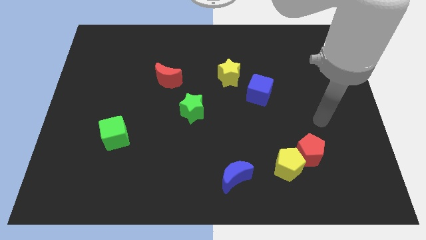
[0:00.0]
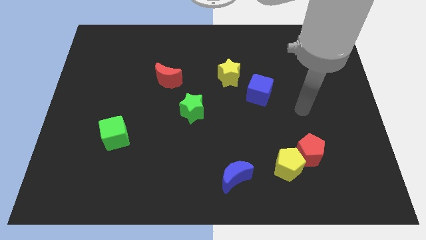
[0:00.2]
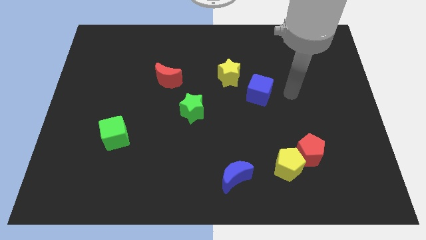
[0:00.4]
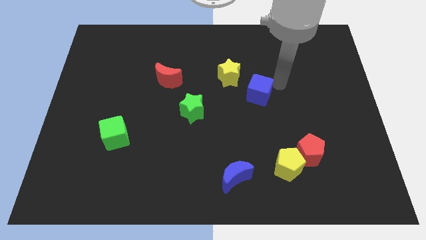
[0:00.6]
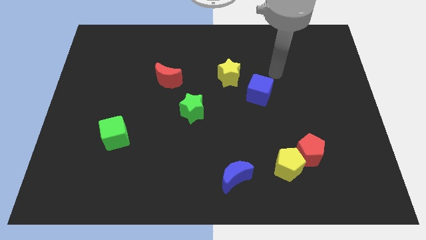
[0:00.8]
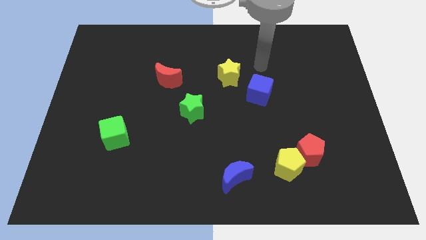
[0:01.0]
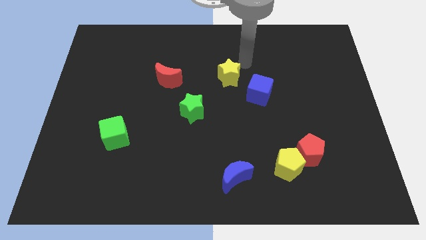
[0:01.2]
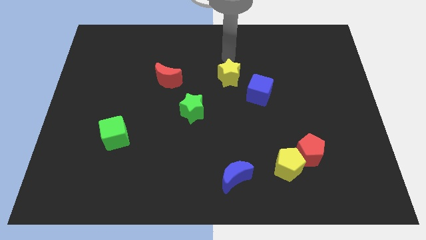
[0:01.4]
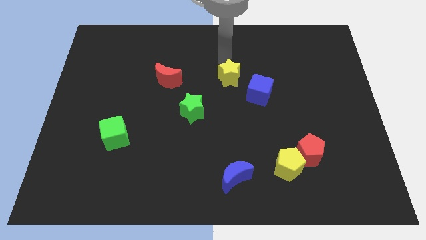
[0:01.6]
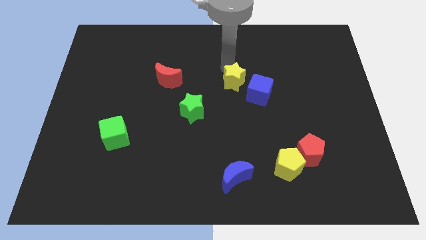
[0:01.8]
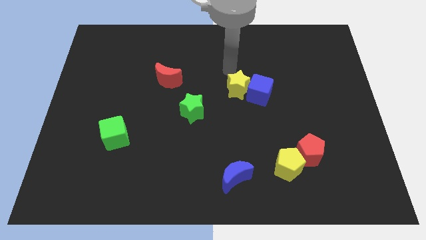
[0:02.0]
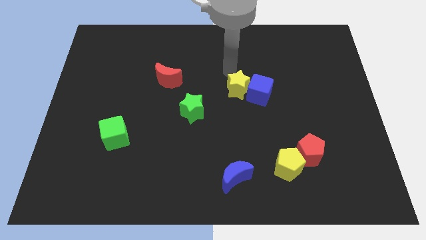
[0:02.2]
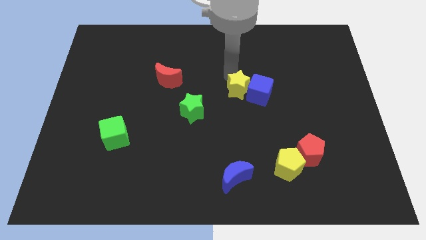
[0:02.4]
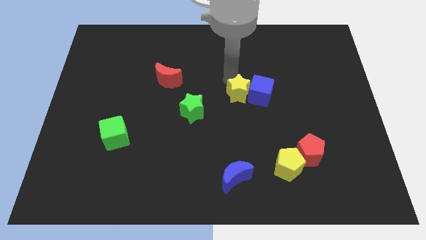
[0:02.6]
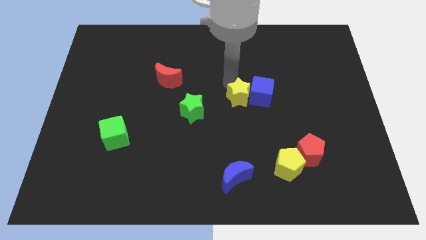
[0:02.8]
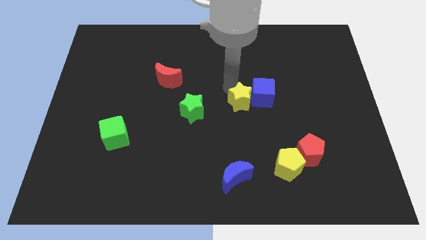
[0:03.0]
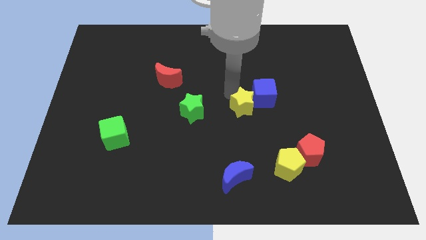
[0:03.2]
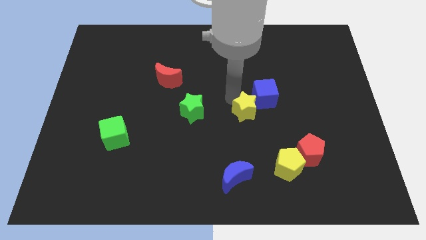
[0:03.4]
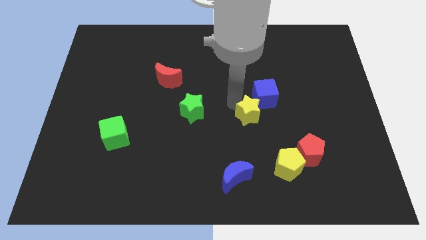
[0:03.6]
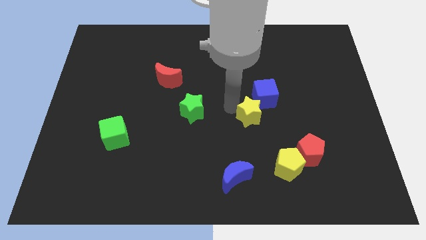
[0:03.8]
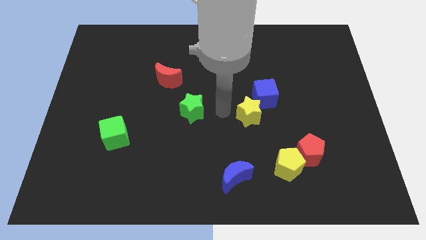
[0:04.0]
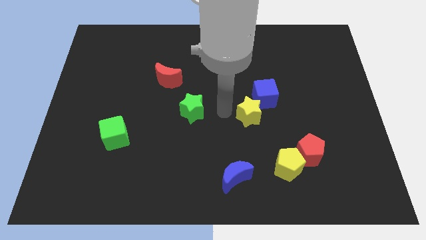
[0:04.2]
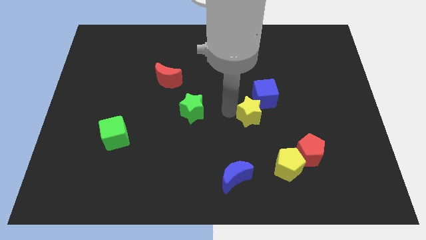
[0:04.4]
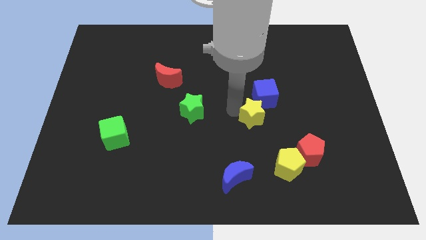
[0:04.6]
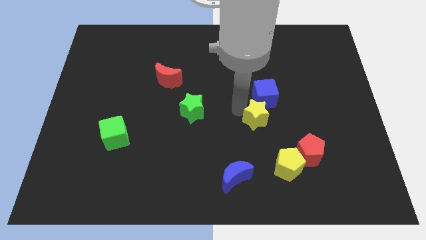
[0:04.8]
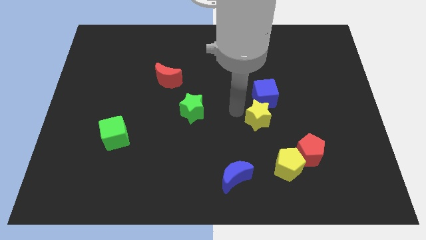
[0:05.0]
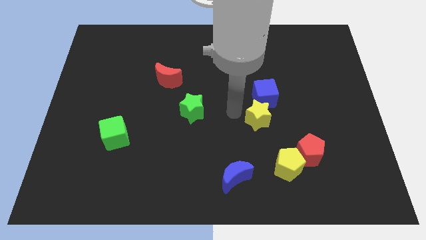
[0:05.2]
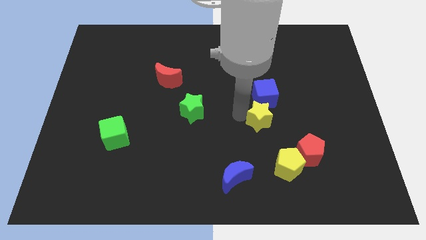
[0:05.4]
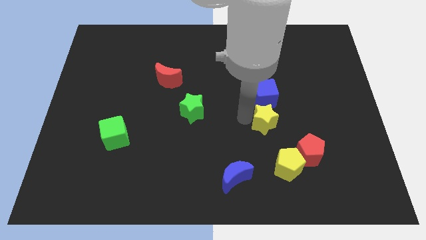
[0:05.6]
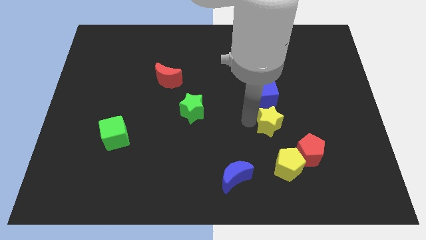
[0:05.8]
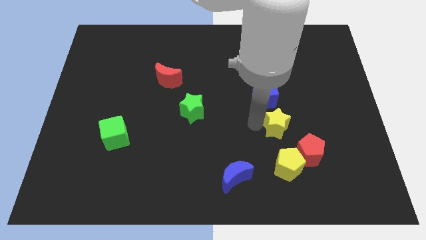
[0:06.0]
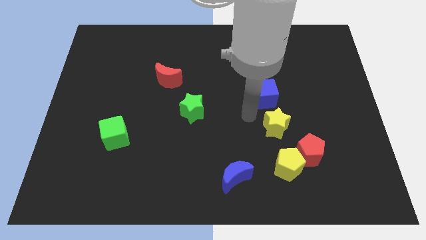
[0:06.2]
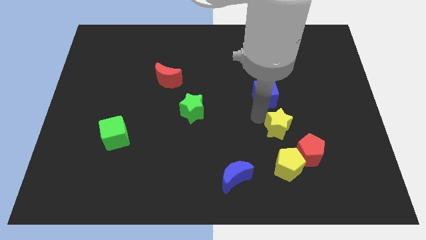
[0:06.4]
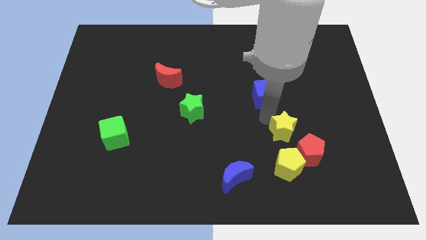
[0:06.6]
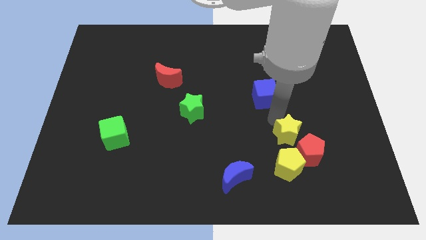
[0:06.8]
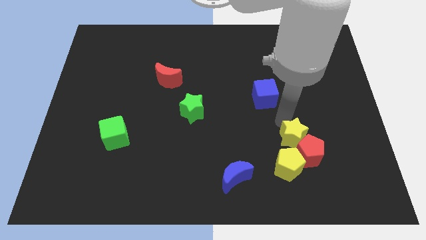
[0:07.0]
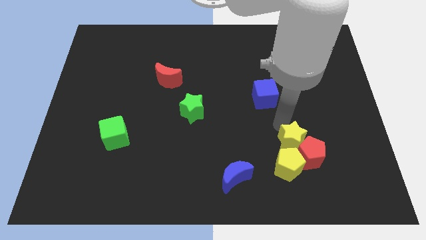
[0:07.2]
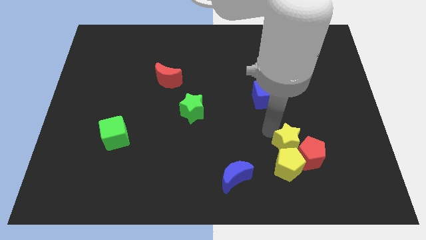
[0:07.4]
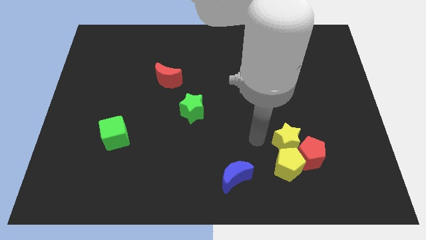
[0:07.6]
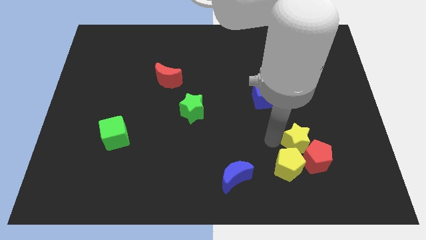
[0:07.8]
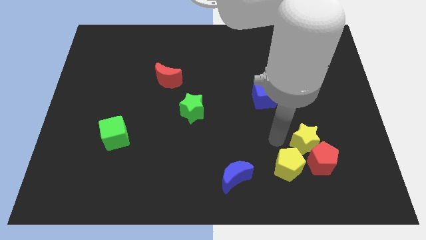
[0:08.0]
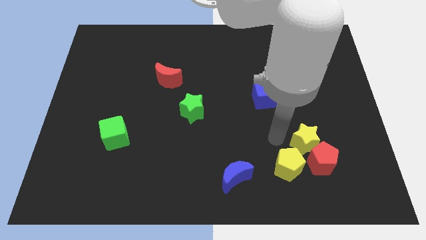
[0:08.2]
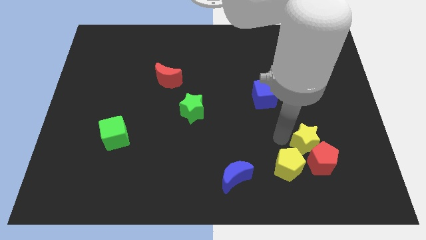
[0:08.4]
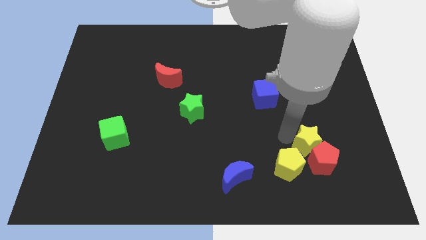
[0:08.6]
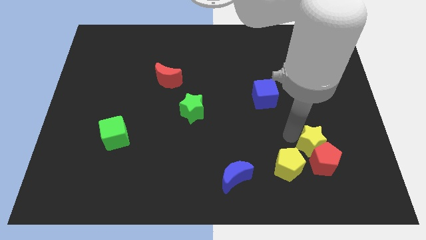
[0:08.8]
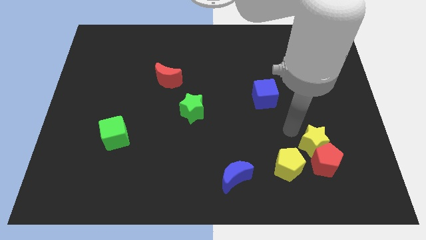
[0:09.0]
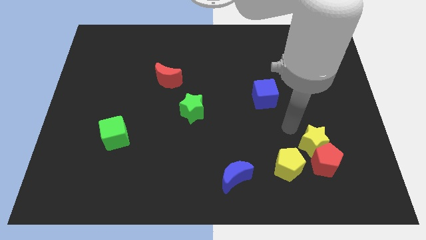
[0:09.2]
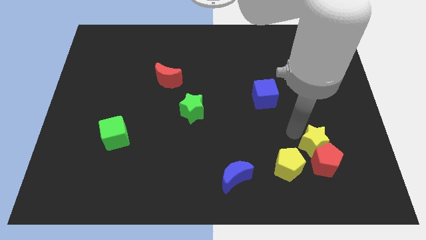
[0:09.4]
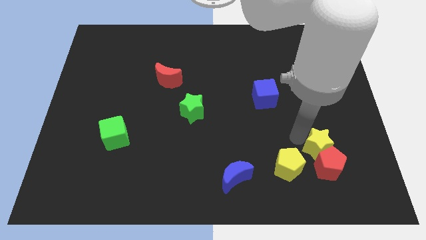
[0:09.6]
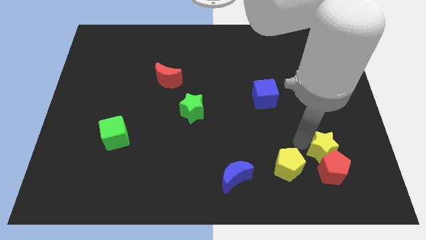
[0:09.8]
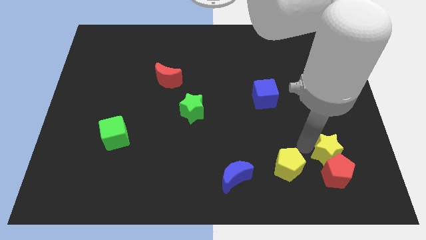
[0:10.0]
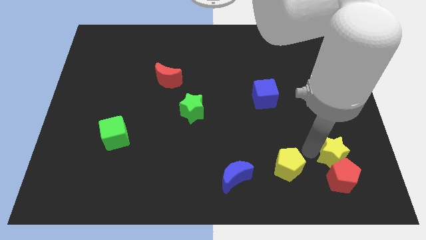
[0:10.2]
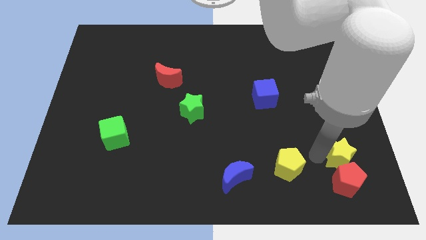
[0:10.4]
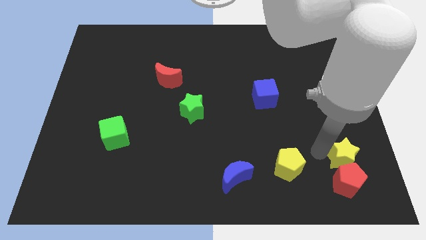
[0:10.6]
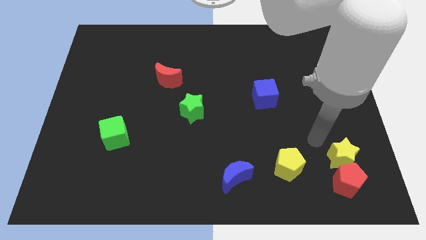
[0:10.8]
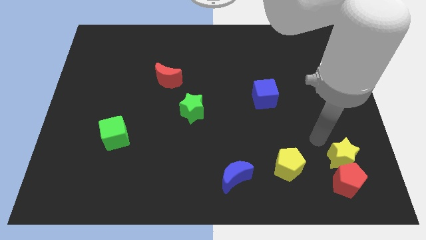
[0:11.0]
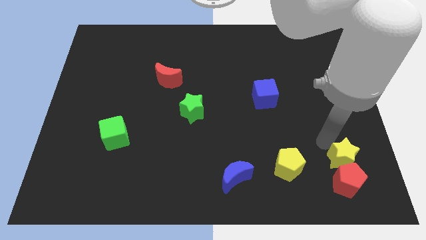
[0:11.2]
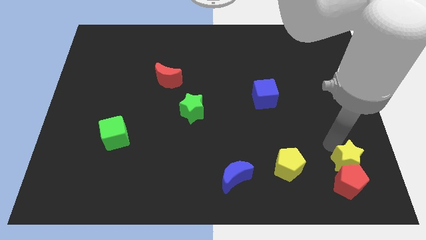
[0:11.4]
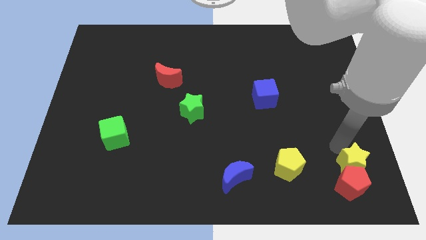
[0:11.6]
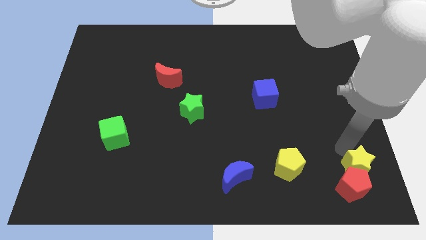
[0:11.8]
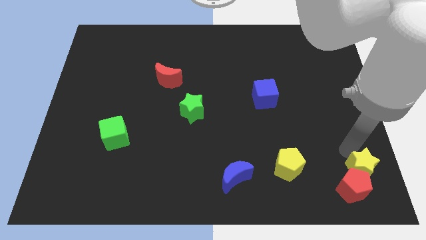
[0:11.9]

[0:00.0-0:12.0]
push the yellow star to the bottom right corner

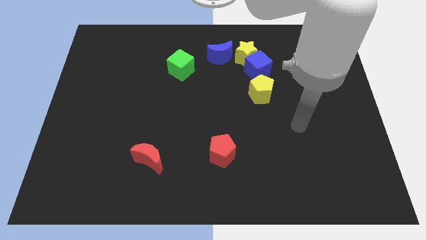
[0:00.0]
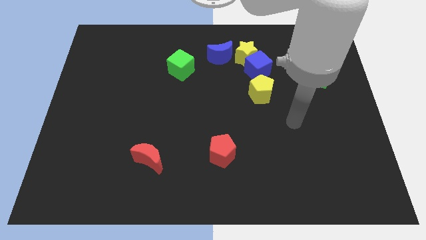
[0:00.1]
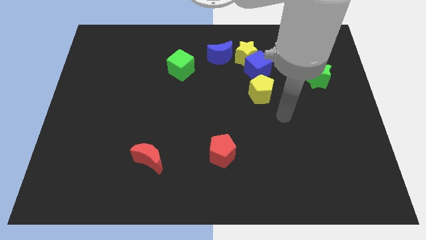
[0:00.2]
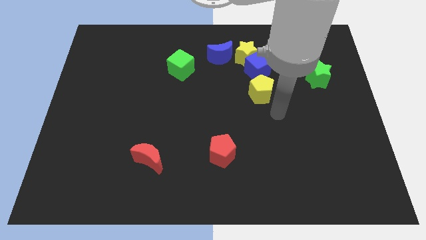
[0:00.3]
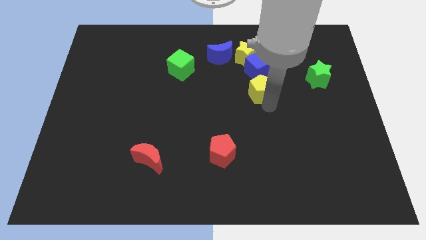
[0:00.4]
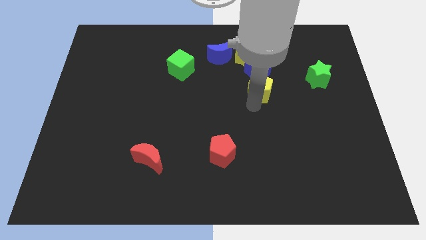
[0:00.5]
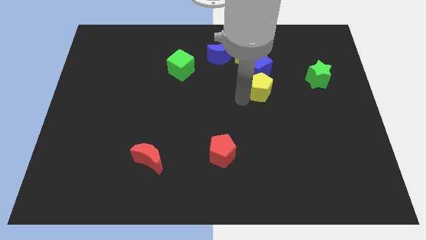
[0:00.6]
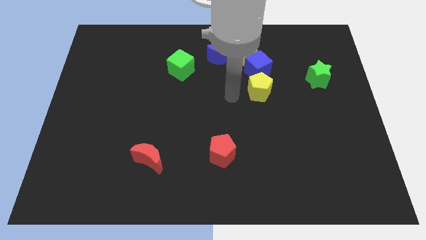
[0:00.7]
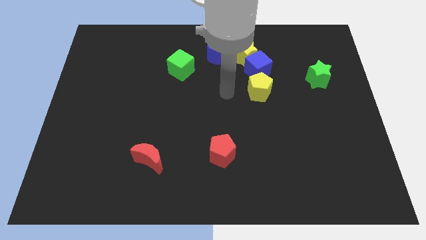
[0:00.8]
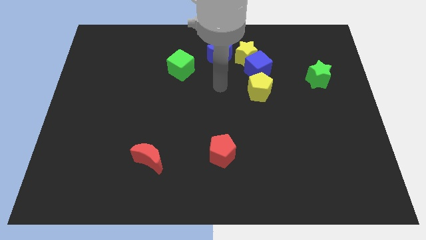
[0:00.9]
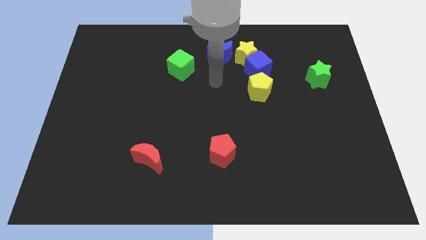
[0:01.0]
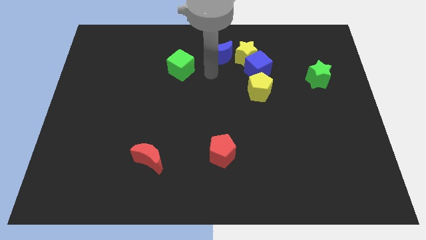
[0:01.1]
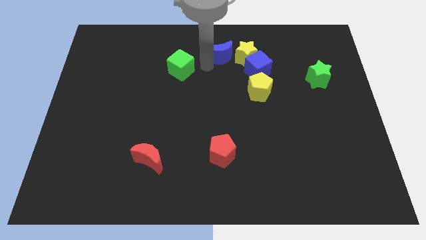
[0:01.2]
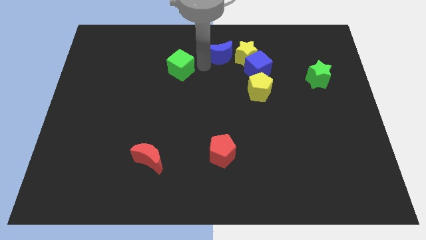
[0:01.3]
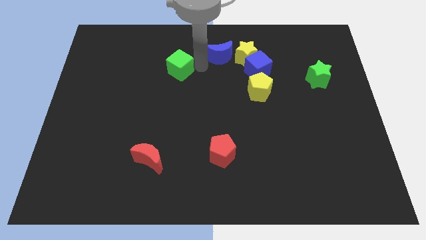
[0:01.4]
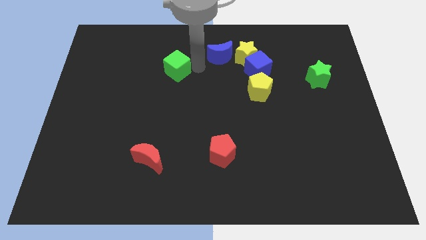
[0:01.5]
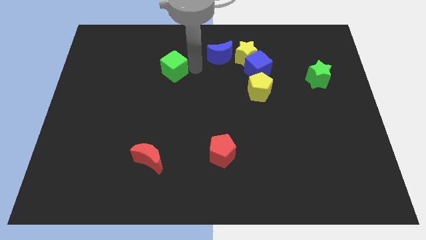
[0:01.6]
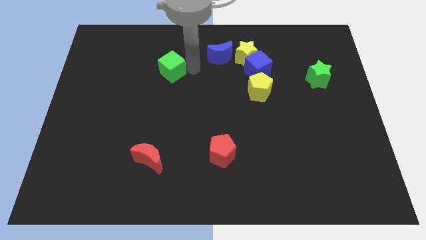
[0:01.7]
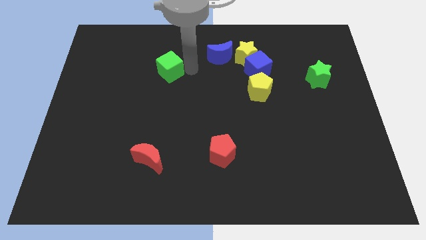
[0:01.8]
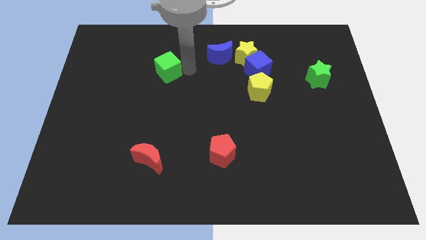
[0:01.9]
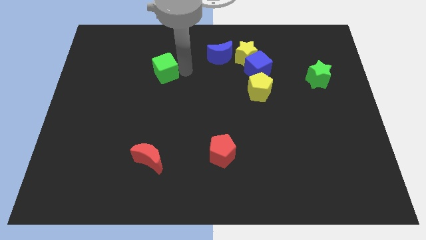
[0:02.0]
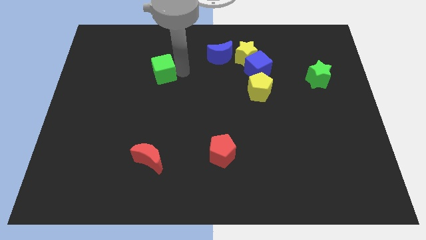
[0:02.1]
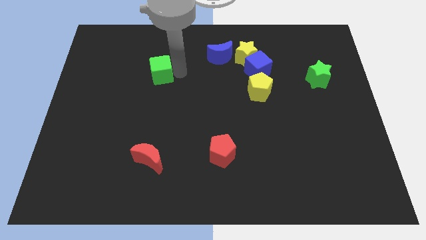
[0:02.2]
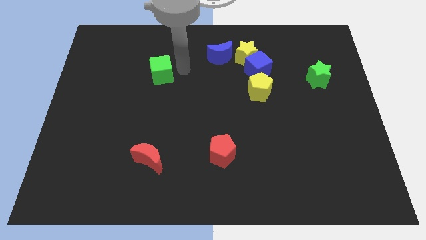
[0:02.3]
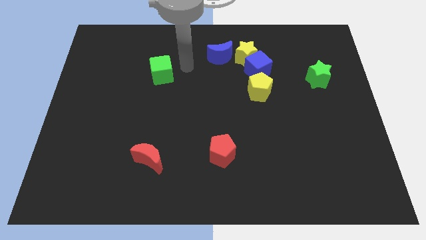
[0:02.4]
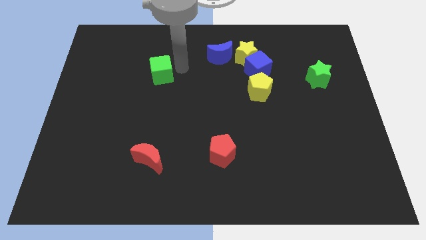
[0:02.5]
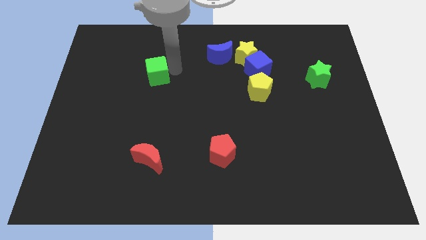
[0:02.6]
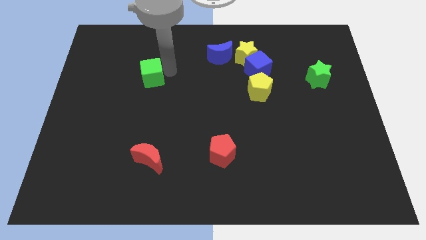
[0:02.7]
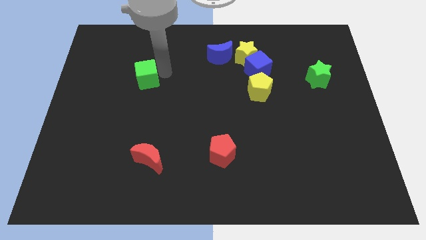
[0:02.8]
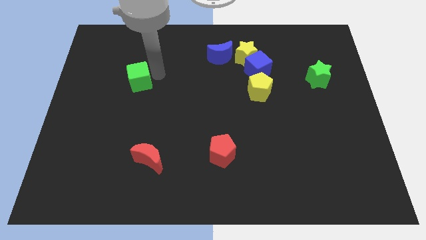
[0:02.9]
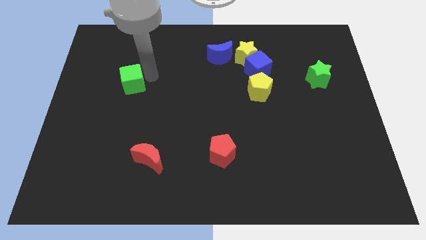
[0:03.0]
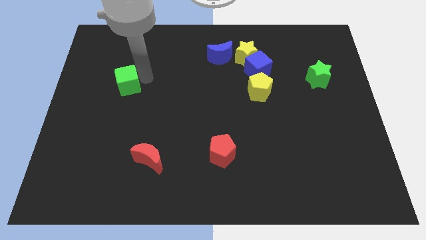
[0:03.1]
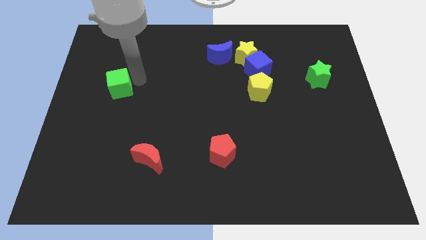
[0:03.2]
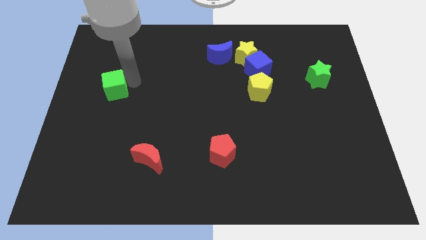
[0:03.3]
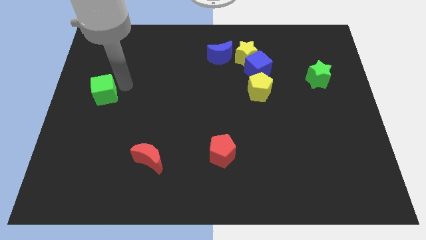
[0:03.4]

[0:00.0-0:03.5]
move the green cube to the left side
